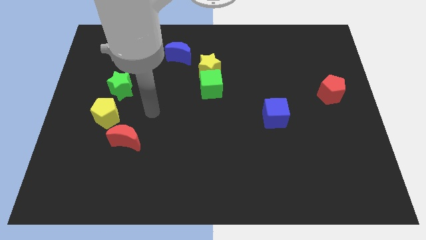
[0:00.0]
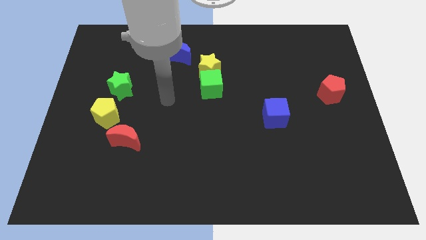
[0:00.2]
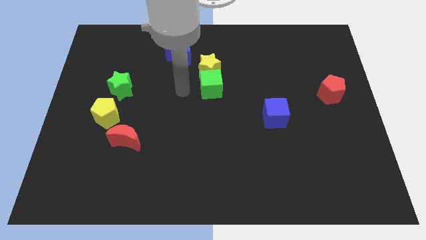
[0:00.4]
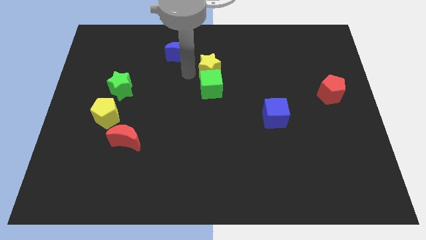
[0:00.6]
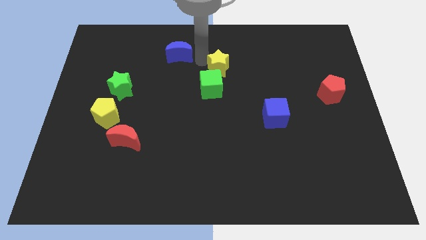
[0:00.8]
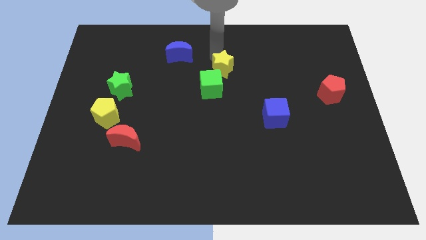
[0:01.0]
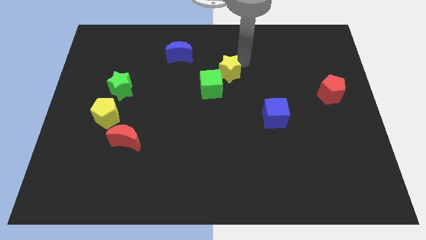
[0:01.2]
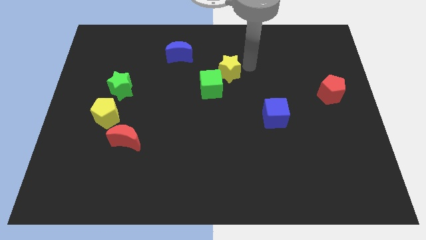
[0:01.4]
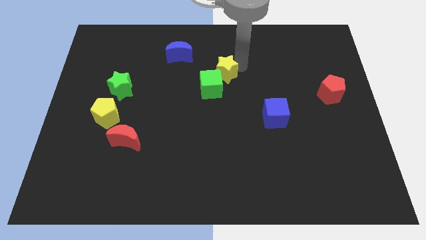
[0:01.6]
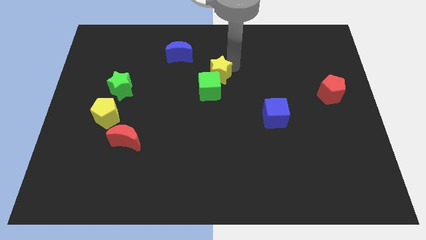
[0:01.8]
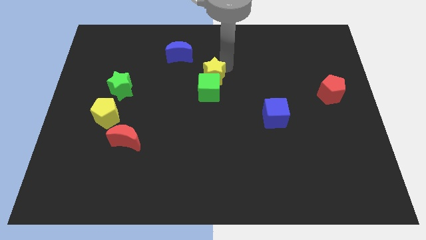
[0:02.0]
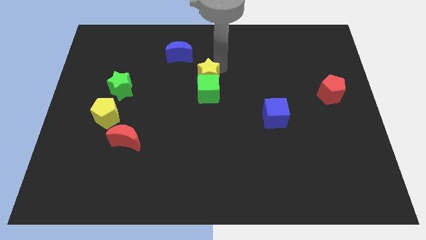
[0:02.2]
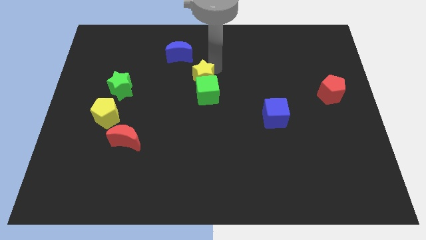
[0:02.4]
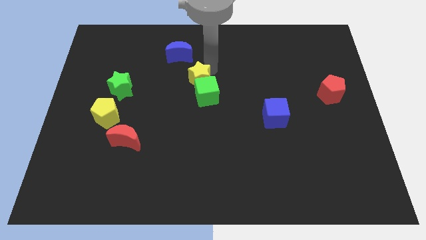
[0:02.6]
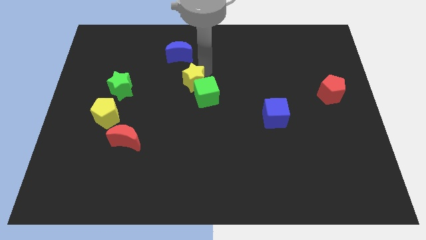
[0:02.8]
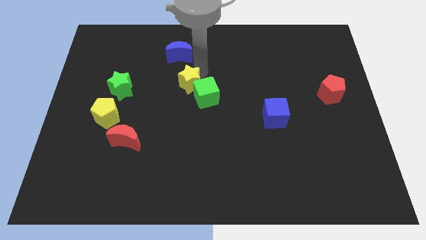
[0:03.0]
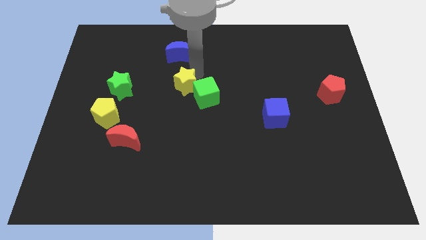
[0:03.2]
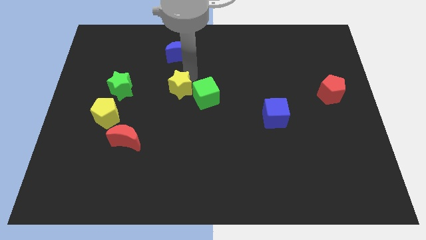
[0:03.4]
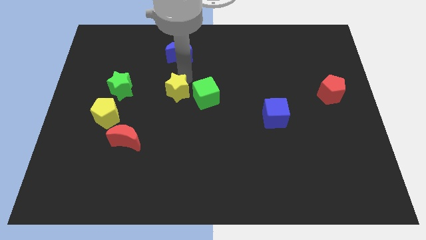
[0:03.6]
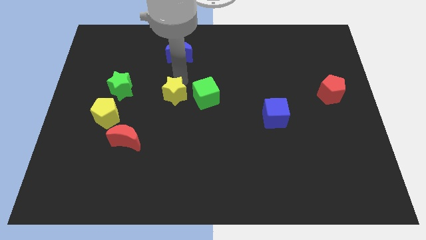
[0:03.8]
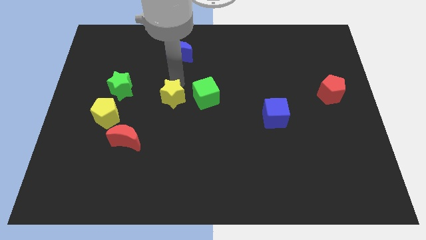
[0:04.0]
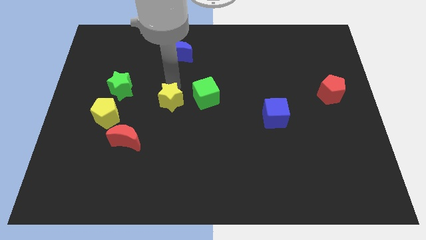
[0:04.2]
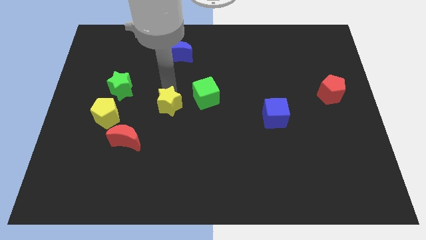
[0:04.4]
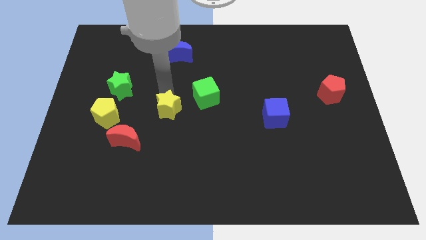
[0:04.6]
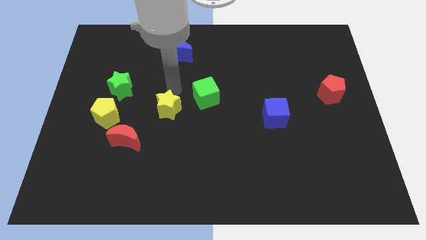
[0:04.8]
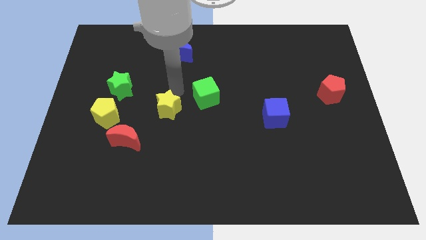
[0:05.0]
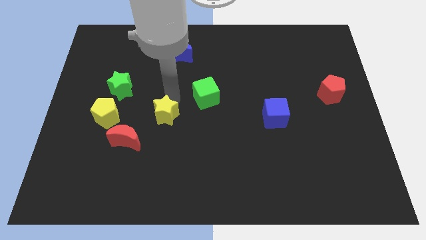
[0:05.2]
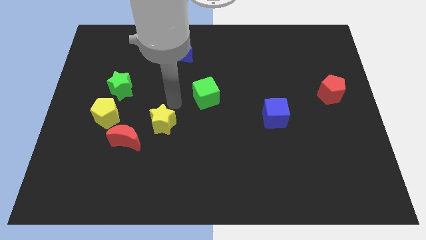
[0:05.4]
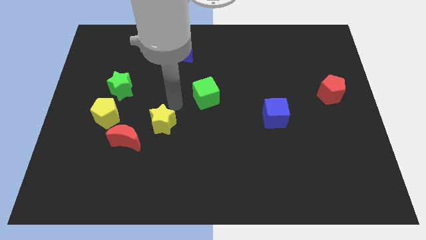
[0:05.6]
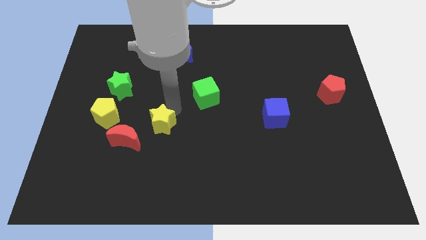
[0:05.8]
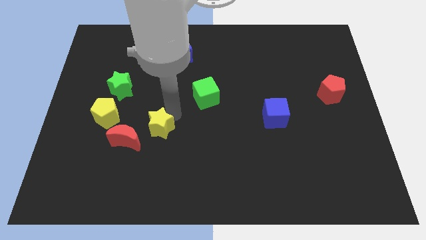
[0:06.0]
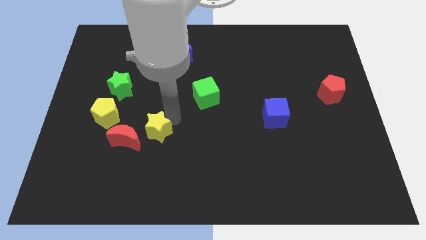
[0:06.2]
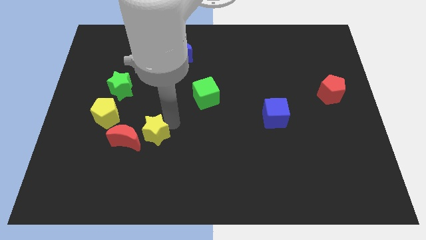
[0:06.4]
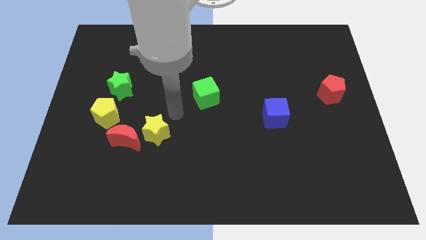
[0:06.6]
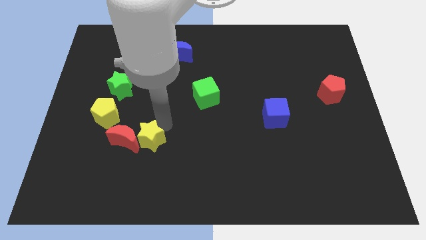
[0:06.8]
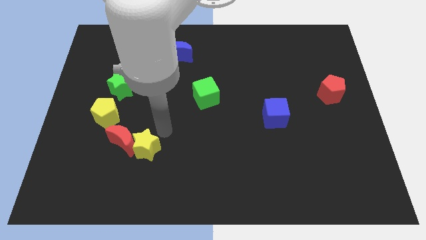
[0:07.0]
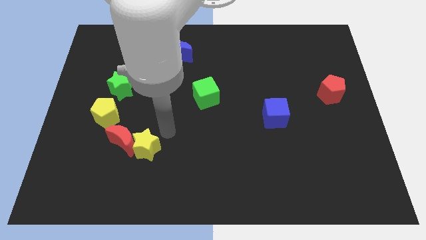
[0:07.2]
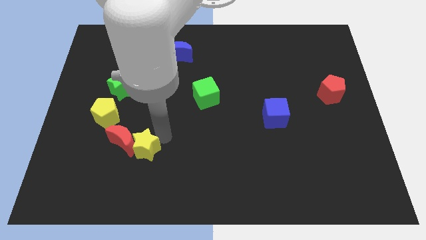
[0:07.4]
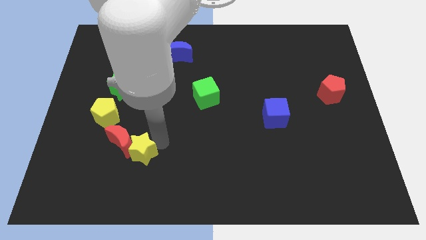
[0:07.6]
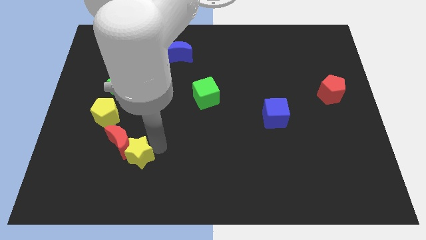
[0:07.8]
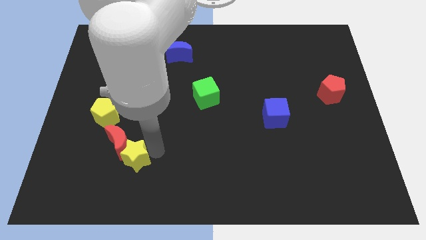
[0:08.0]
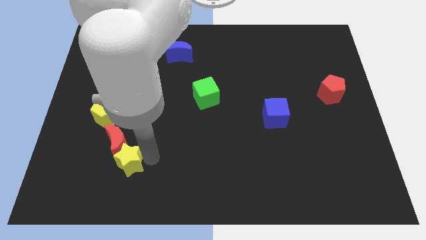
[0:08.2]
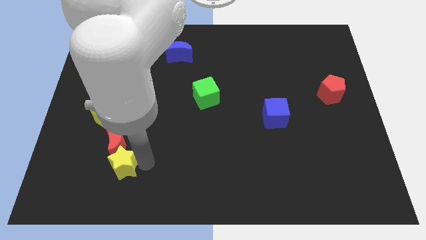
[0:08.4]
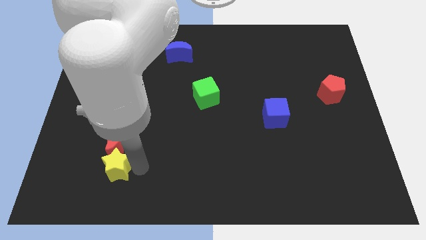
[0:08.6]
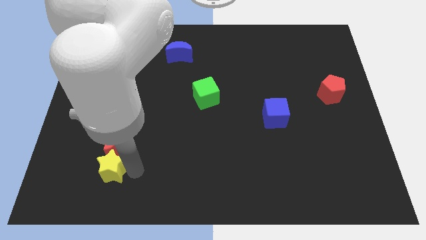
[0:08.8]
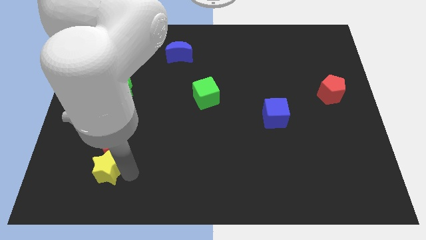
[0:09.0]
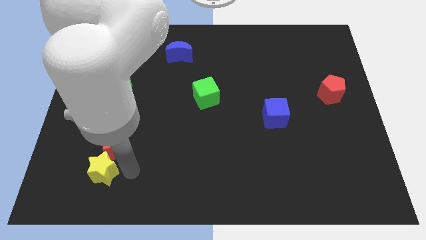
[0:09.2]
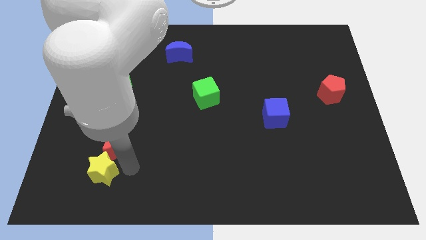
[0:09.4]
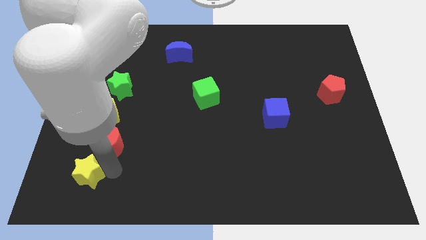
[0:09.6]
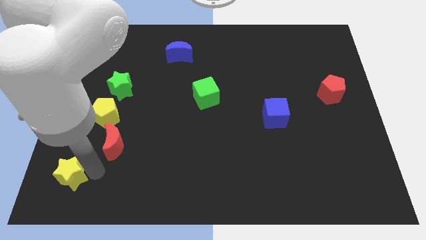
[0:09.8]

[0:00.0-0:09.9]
push the yellow star to the bottom left

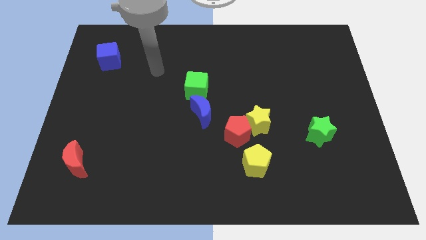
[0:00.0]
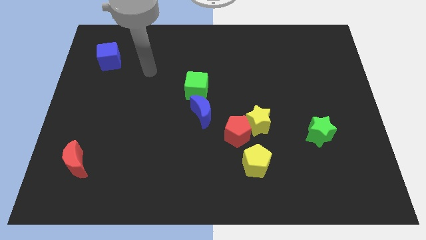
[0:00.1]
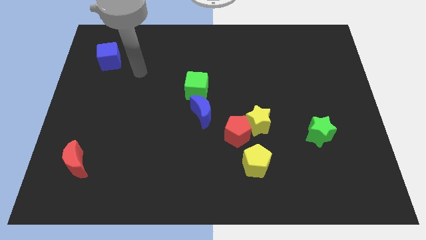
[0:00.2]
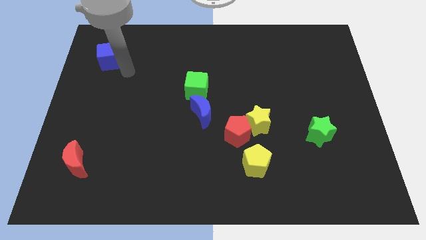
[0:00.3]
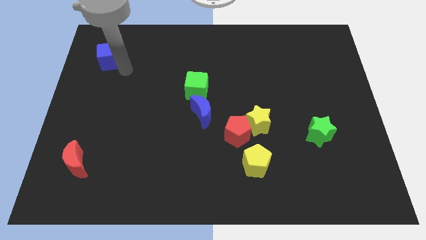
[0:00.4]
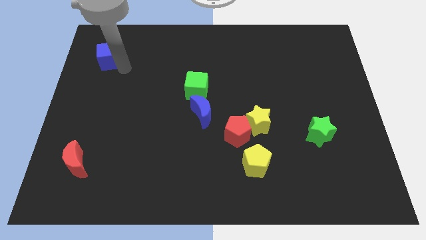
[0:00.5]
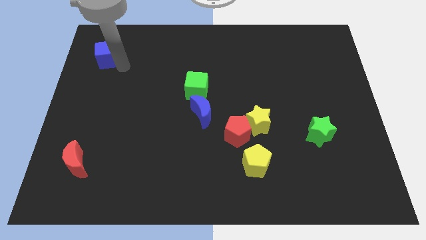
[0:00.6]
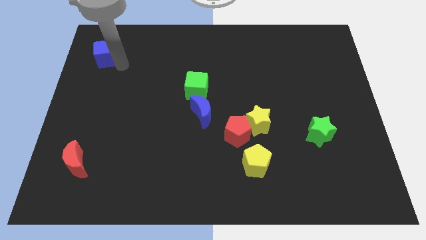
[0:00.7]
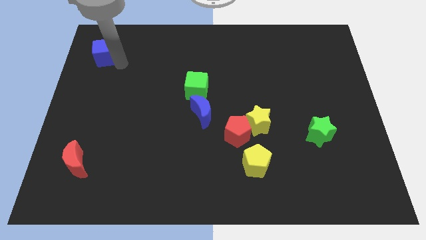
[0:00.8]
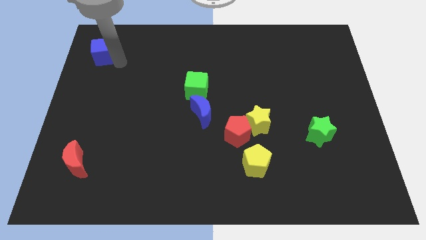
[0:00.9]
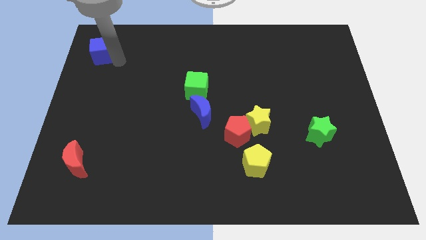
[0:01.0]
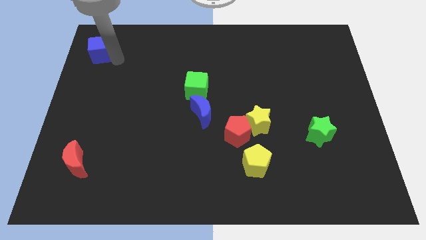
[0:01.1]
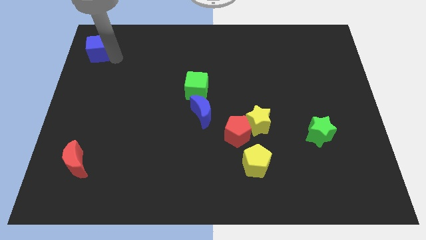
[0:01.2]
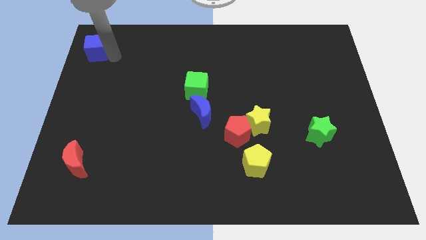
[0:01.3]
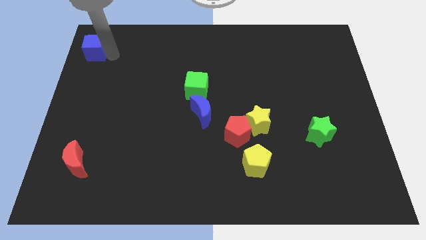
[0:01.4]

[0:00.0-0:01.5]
put the blue cube to the top left
